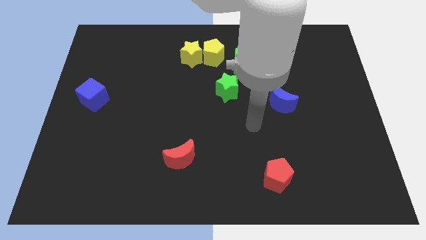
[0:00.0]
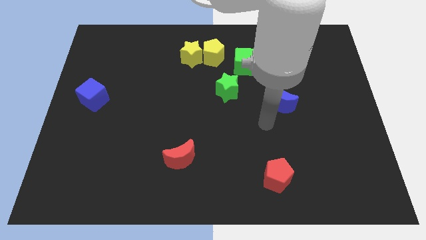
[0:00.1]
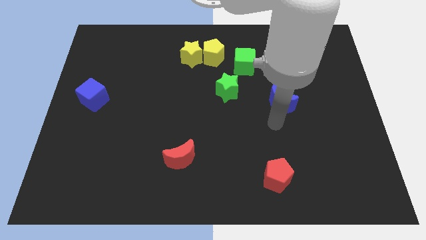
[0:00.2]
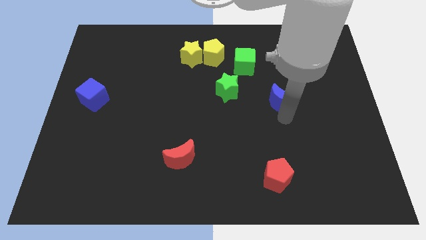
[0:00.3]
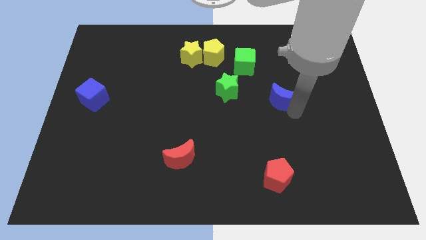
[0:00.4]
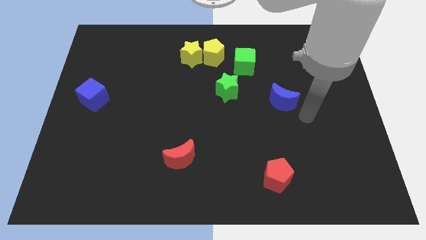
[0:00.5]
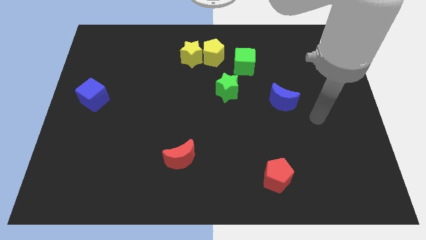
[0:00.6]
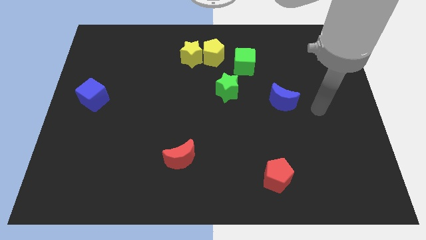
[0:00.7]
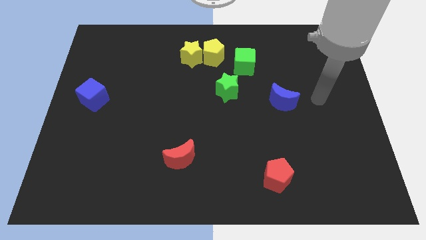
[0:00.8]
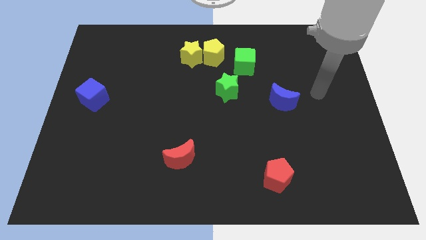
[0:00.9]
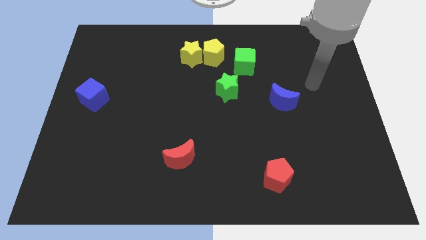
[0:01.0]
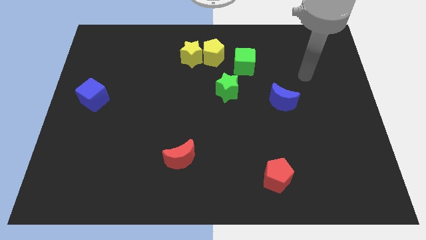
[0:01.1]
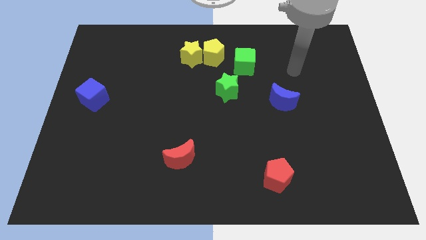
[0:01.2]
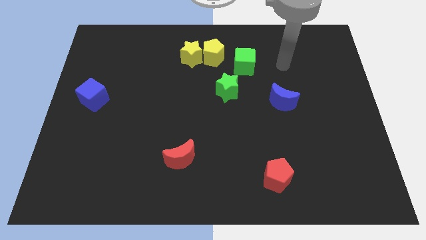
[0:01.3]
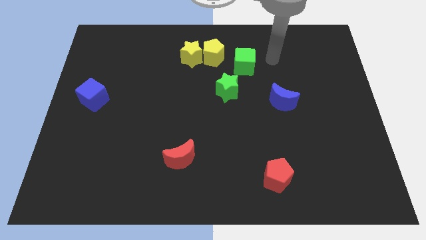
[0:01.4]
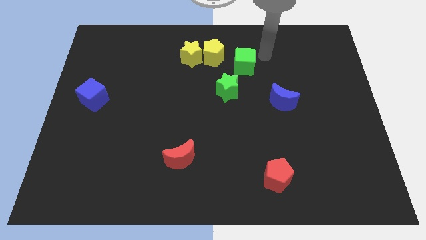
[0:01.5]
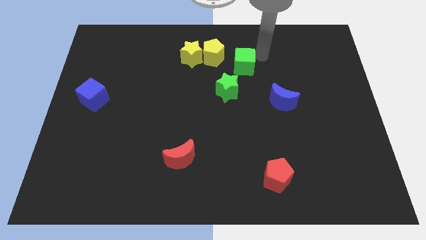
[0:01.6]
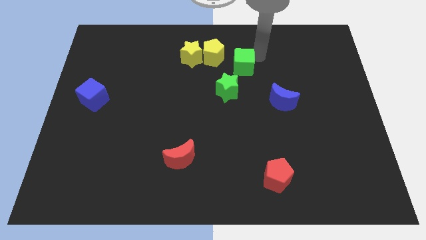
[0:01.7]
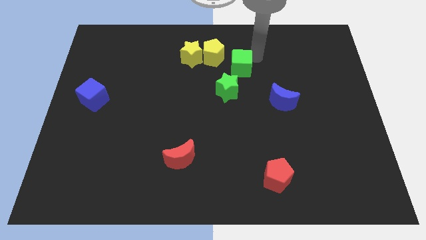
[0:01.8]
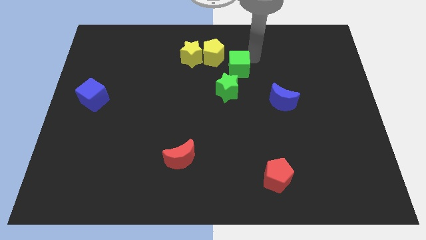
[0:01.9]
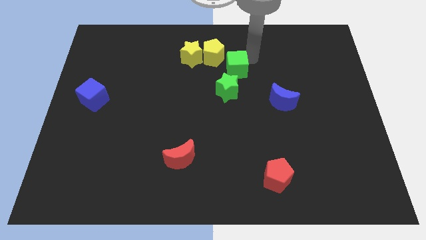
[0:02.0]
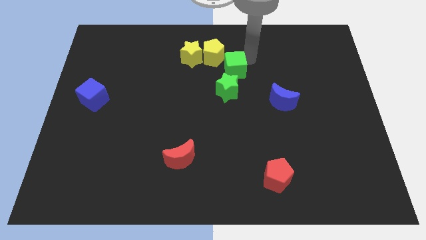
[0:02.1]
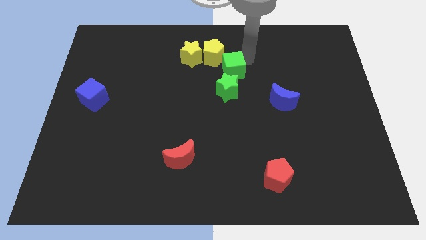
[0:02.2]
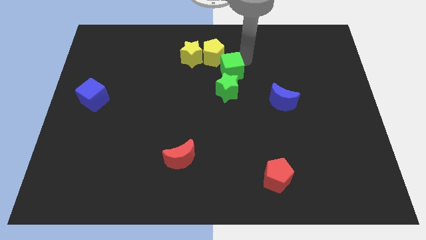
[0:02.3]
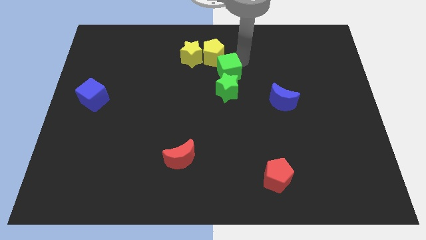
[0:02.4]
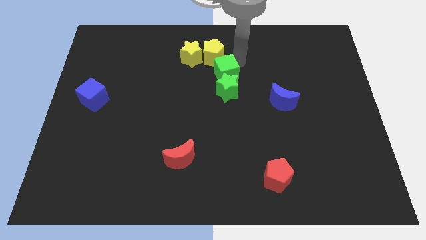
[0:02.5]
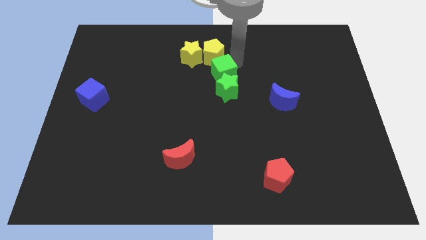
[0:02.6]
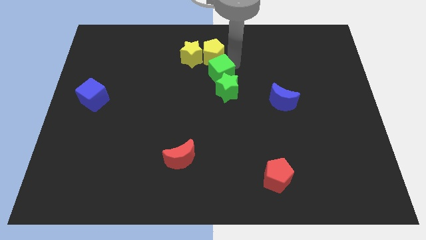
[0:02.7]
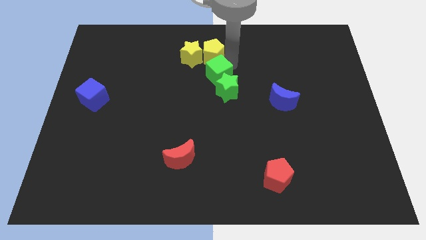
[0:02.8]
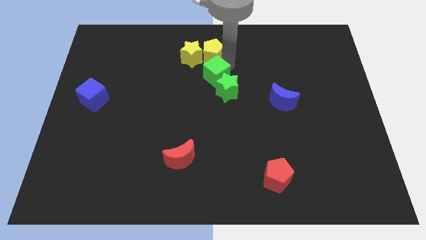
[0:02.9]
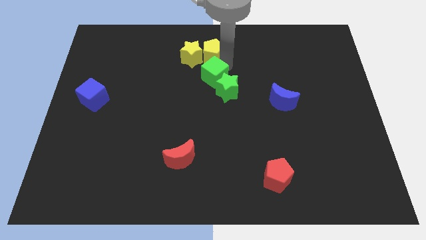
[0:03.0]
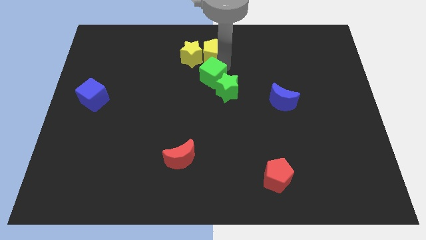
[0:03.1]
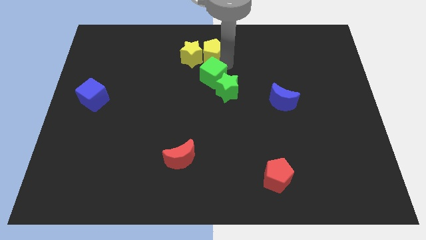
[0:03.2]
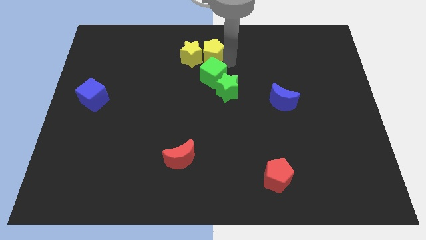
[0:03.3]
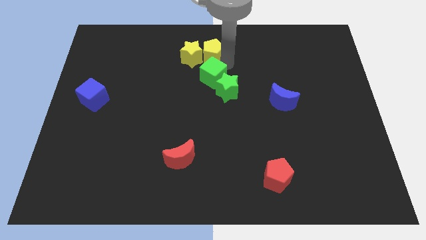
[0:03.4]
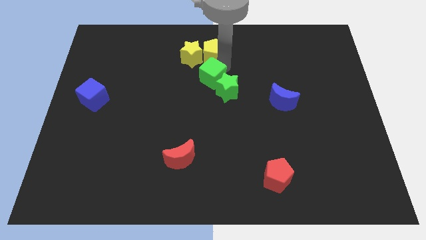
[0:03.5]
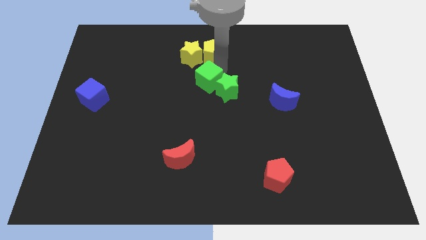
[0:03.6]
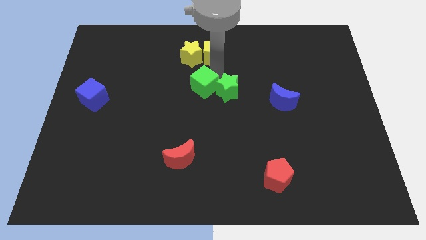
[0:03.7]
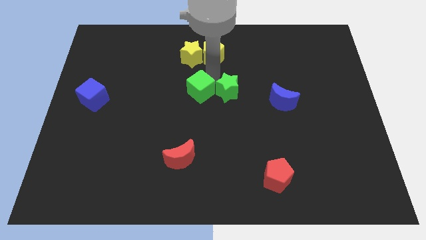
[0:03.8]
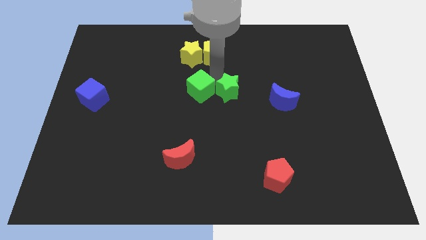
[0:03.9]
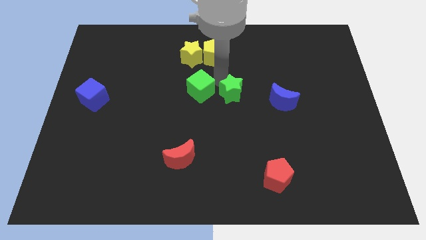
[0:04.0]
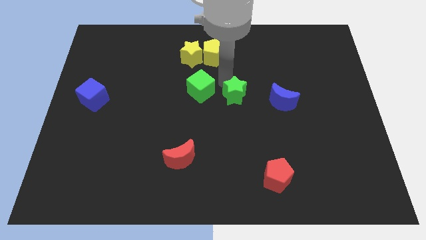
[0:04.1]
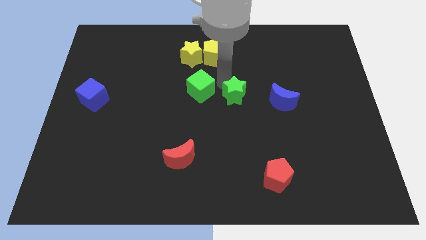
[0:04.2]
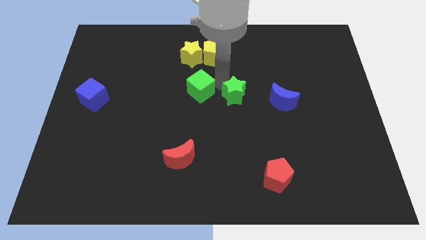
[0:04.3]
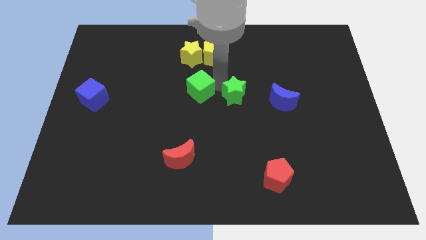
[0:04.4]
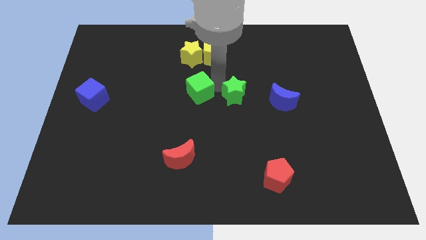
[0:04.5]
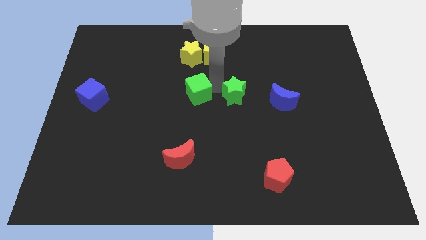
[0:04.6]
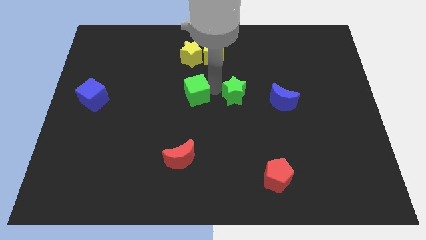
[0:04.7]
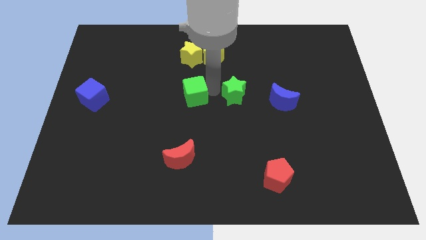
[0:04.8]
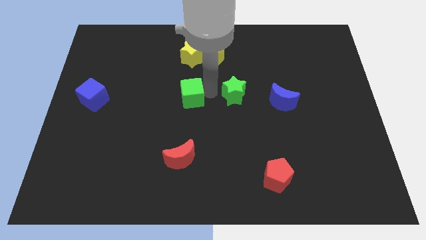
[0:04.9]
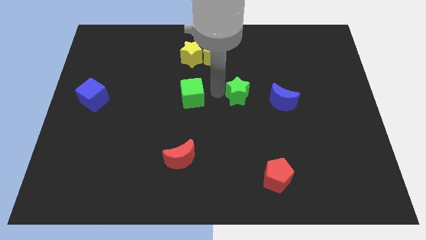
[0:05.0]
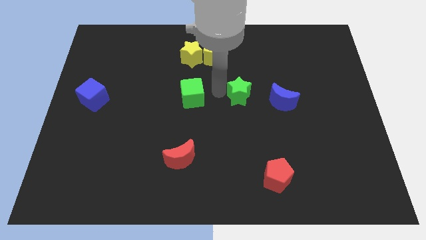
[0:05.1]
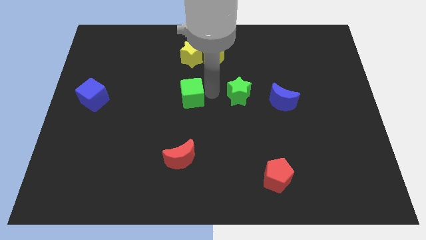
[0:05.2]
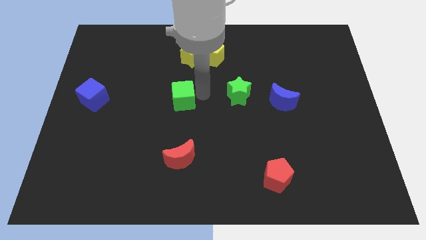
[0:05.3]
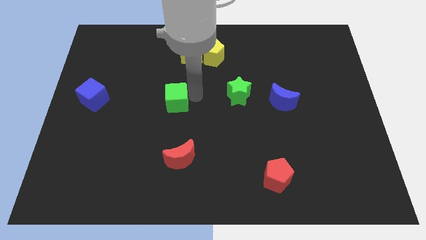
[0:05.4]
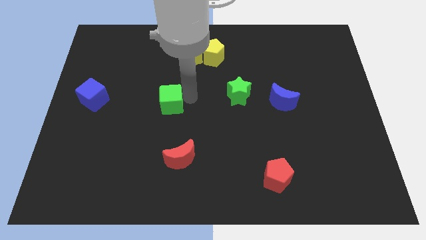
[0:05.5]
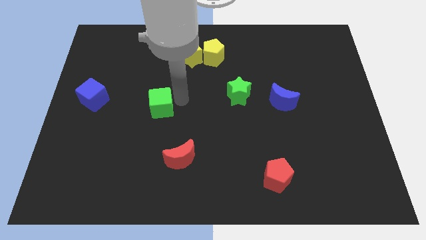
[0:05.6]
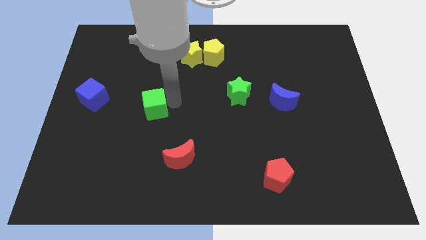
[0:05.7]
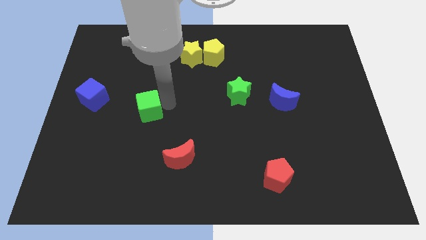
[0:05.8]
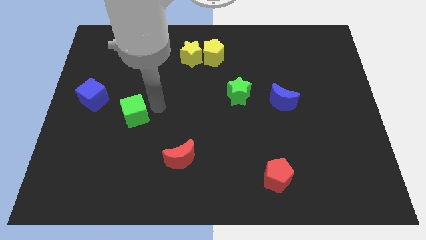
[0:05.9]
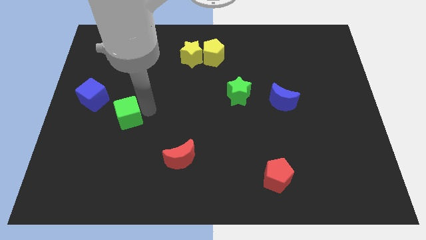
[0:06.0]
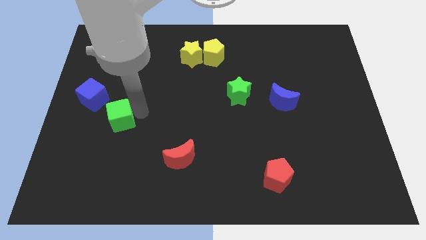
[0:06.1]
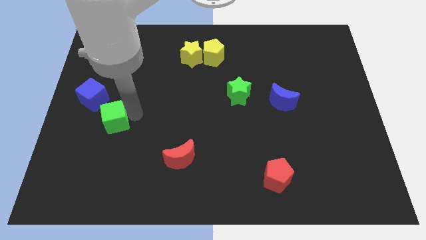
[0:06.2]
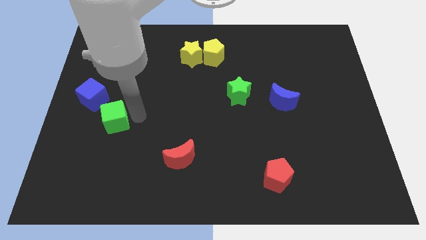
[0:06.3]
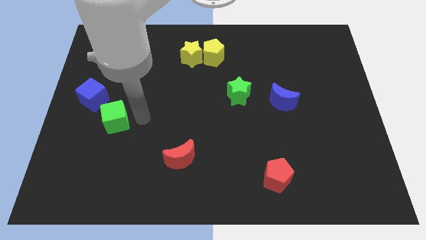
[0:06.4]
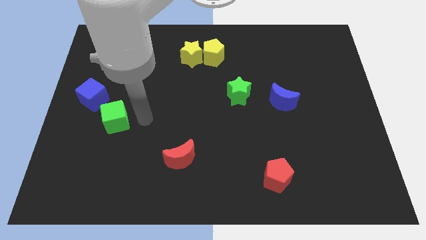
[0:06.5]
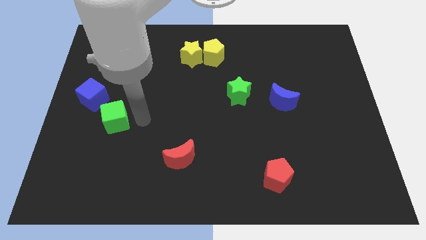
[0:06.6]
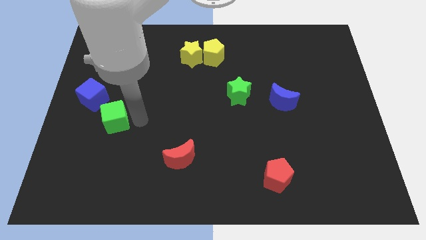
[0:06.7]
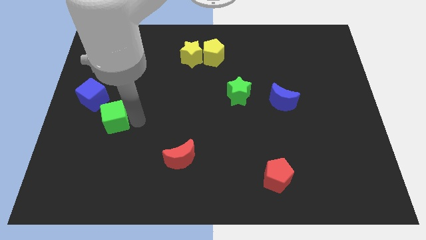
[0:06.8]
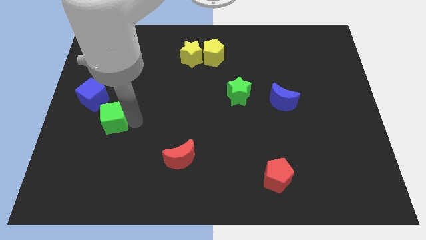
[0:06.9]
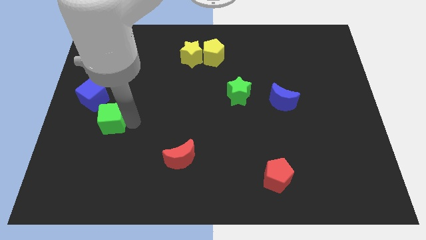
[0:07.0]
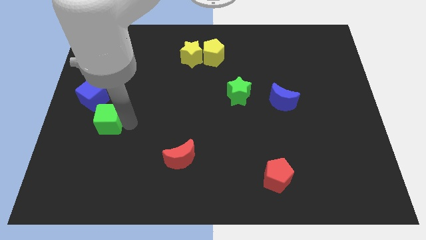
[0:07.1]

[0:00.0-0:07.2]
push the green cube to the bottom side of the blue cube
